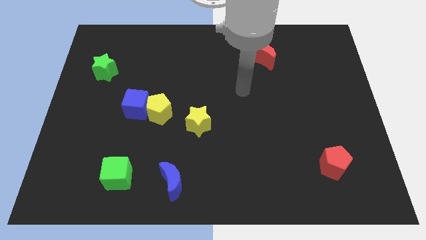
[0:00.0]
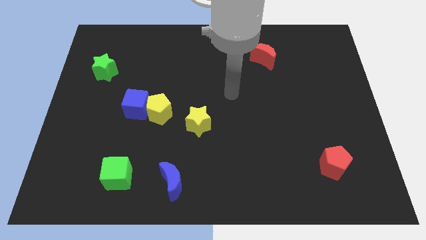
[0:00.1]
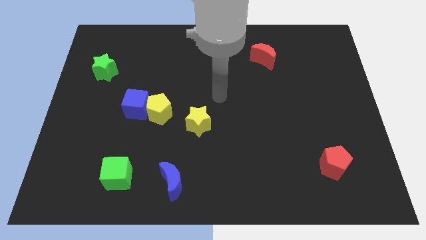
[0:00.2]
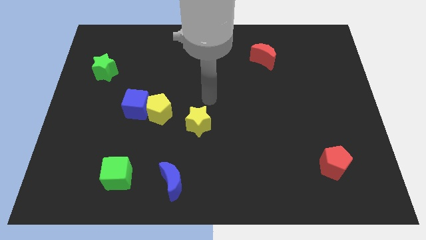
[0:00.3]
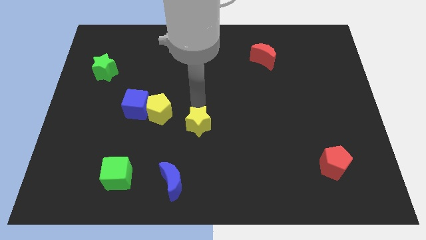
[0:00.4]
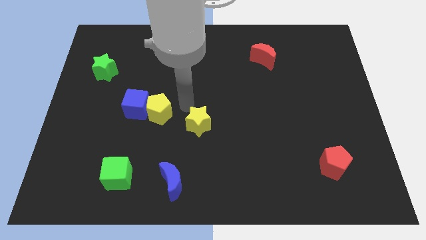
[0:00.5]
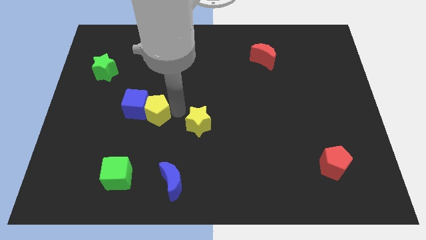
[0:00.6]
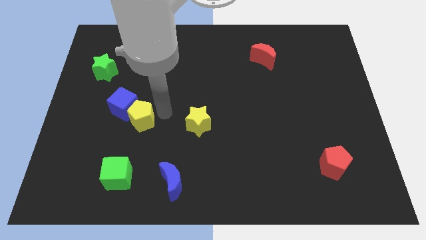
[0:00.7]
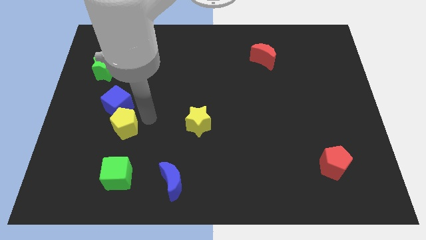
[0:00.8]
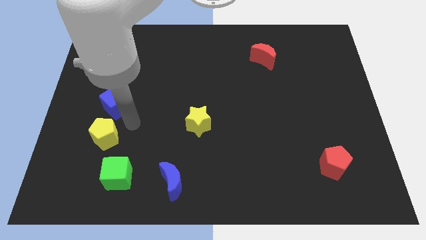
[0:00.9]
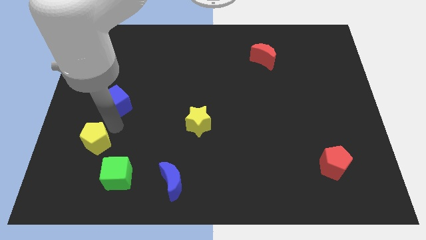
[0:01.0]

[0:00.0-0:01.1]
move the blue cube away from the yellow pentagon

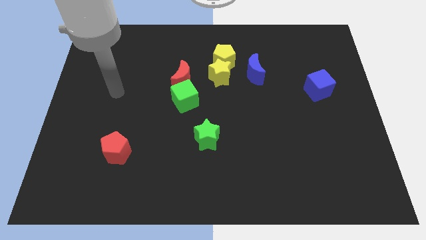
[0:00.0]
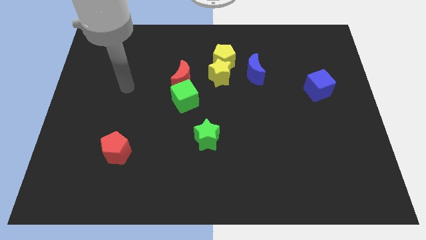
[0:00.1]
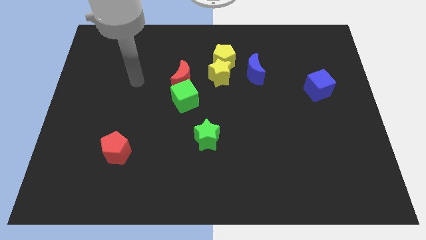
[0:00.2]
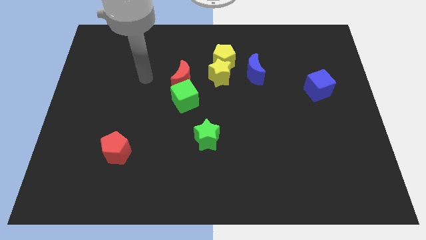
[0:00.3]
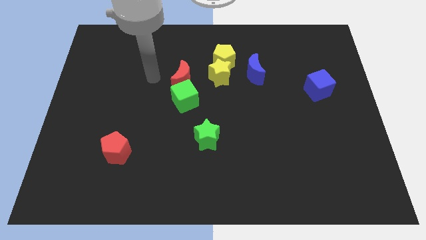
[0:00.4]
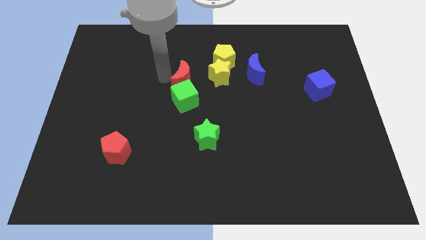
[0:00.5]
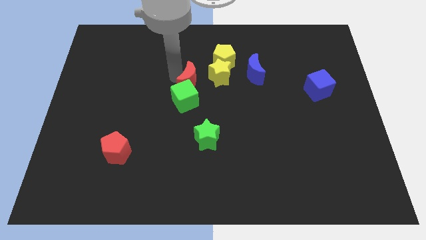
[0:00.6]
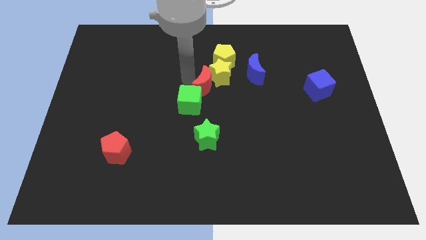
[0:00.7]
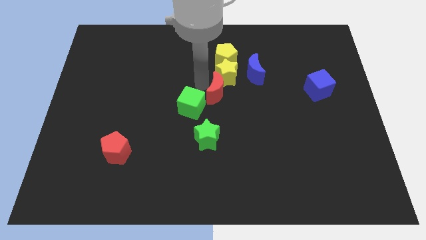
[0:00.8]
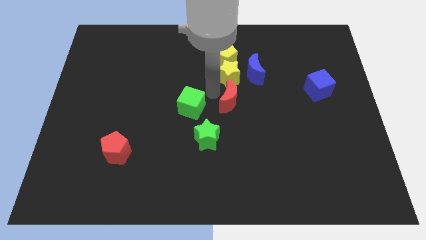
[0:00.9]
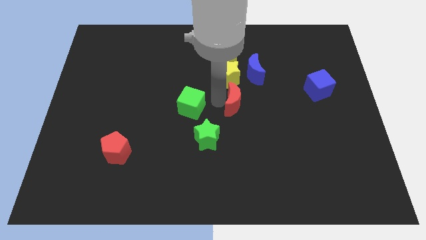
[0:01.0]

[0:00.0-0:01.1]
separate the green cube from the red moon

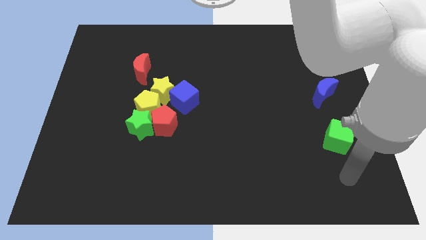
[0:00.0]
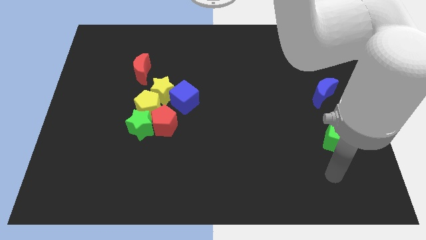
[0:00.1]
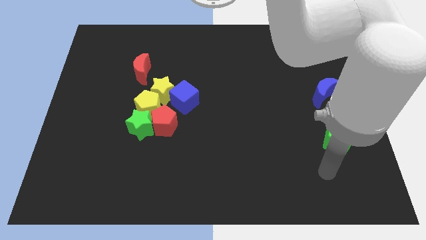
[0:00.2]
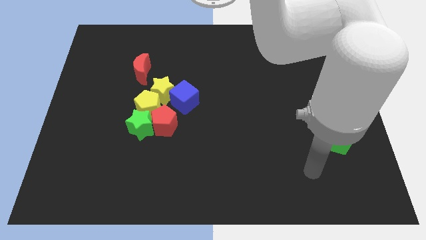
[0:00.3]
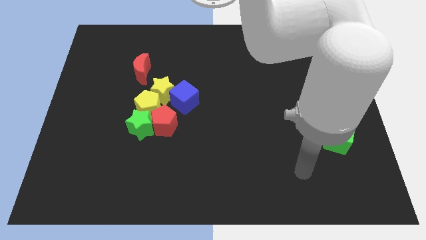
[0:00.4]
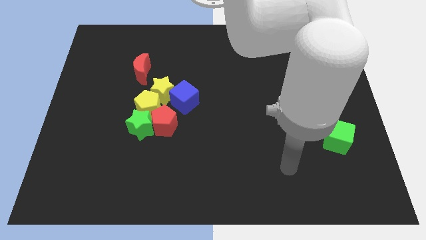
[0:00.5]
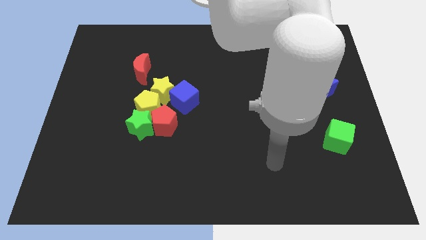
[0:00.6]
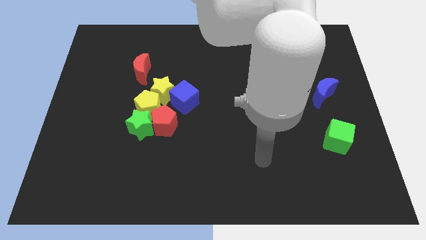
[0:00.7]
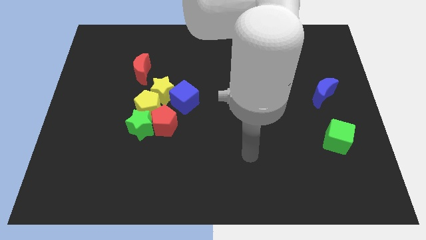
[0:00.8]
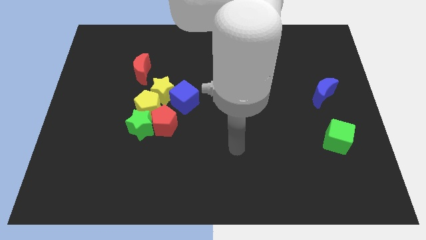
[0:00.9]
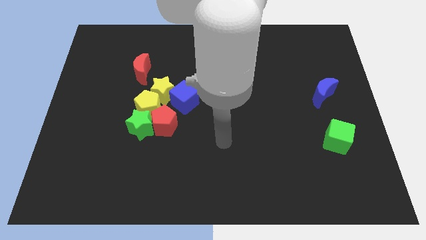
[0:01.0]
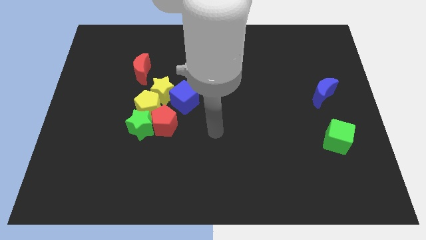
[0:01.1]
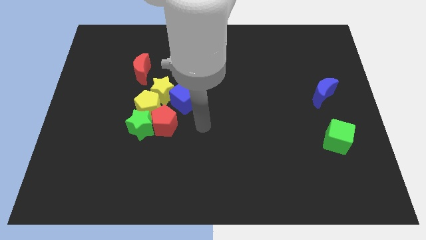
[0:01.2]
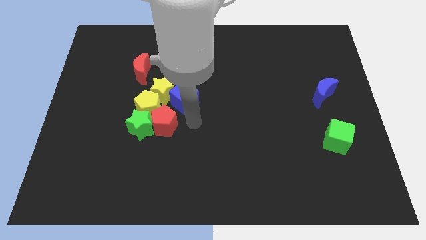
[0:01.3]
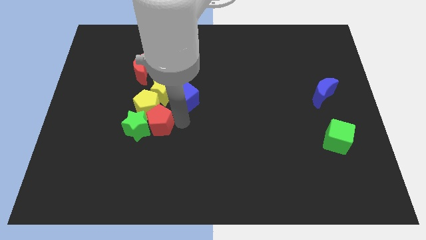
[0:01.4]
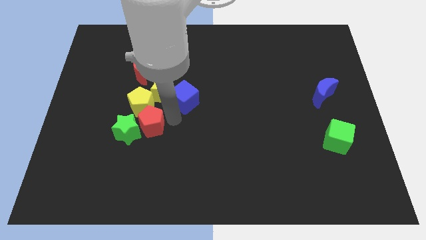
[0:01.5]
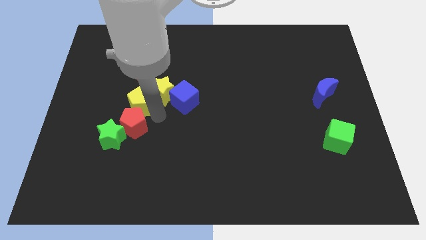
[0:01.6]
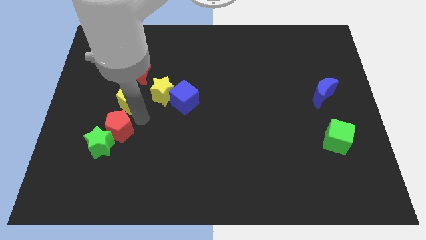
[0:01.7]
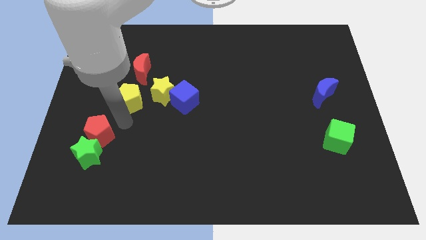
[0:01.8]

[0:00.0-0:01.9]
pull the green star apart from the red pentagon and yellow pentagon

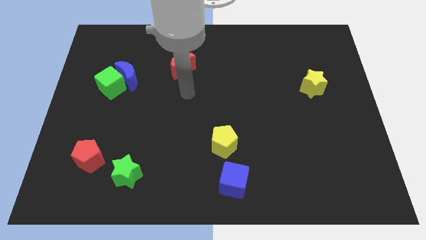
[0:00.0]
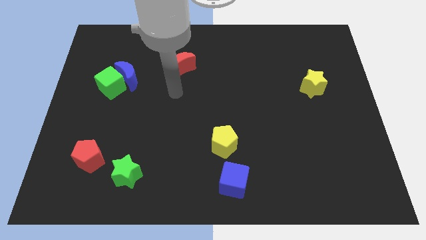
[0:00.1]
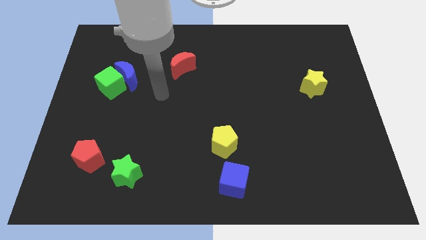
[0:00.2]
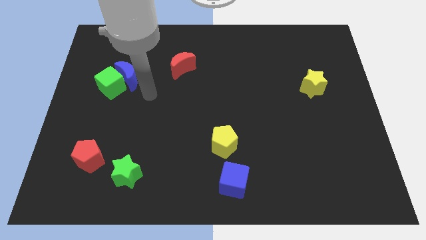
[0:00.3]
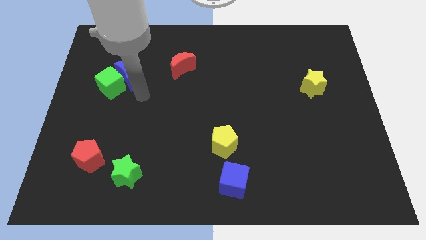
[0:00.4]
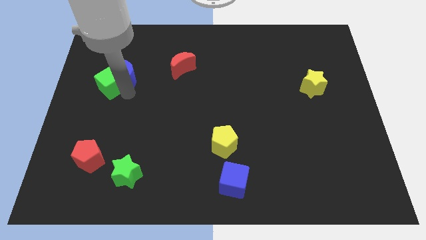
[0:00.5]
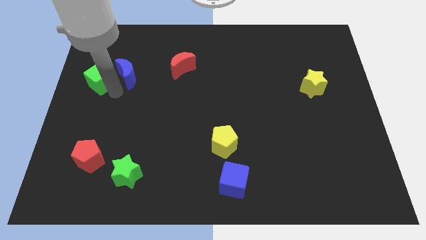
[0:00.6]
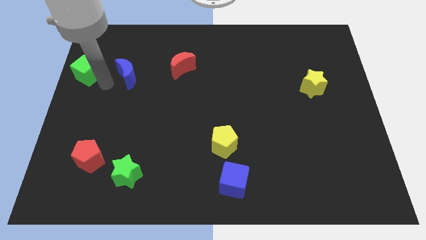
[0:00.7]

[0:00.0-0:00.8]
move the blue moon away from the green cube

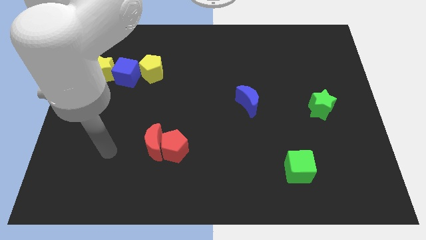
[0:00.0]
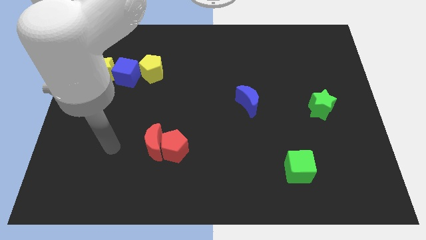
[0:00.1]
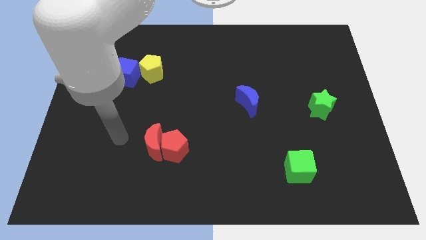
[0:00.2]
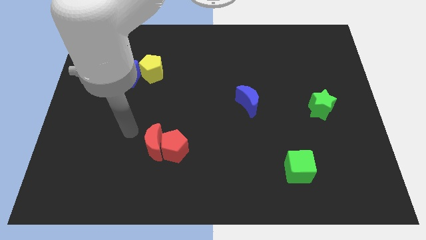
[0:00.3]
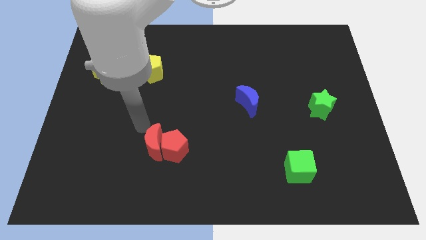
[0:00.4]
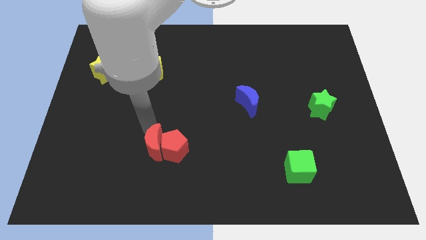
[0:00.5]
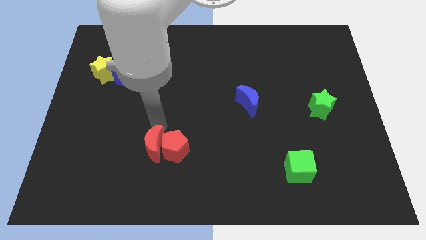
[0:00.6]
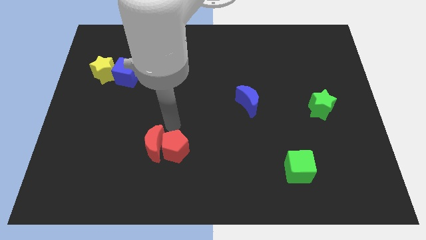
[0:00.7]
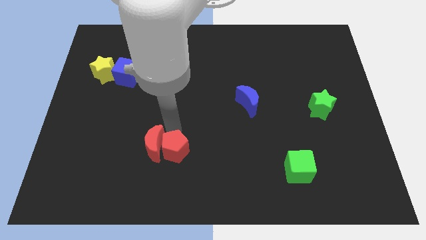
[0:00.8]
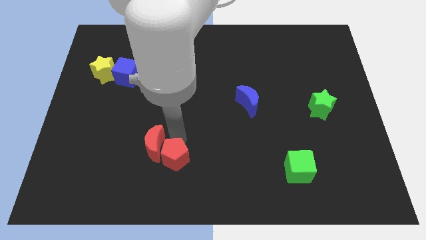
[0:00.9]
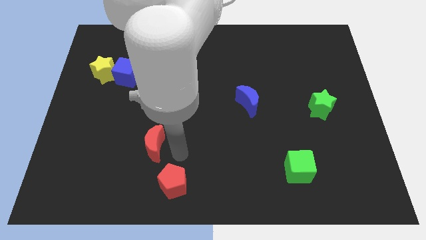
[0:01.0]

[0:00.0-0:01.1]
pull the red moon apart from the red pentagon

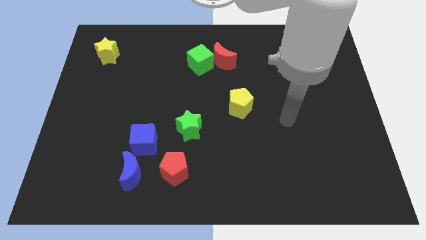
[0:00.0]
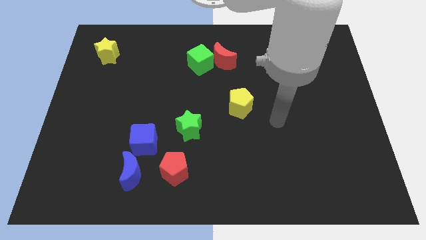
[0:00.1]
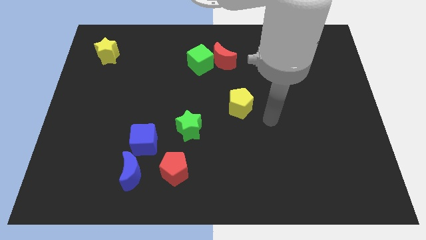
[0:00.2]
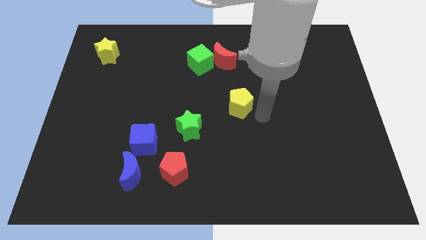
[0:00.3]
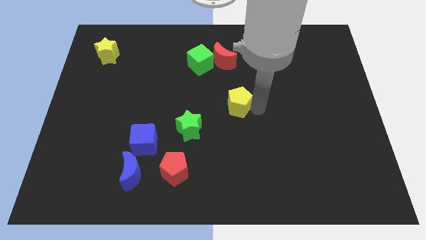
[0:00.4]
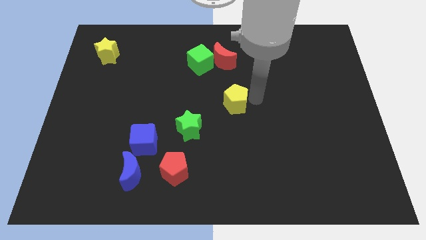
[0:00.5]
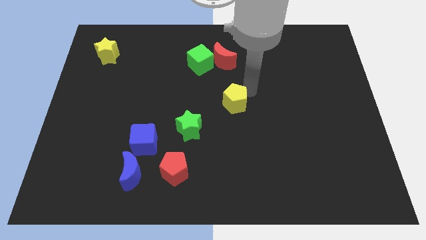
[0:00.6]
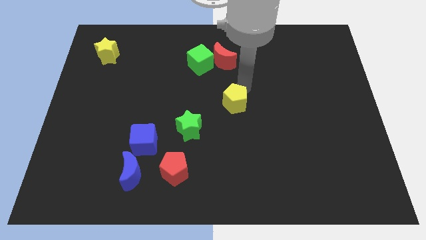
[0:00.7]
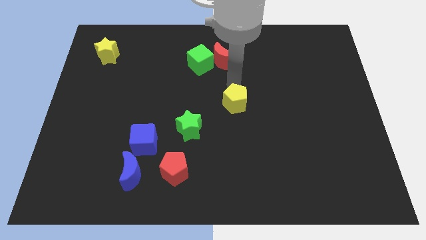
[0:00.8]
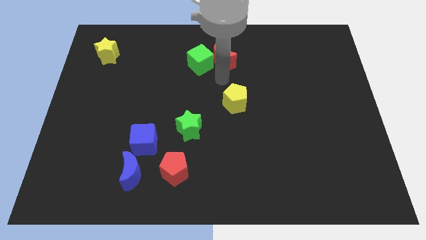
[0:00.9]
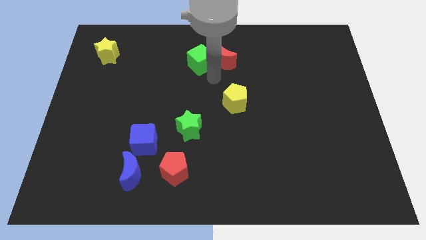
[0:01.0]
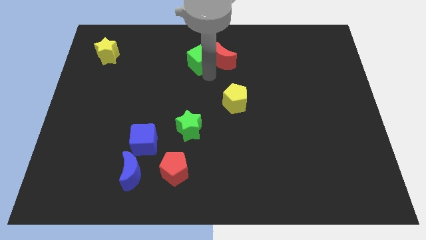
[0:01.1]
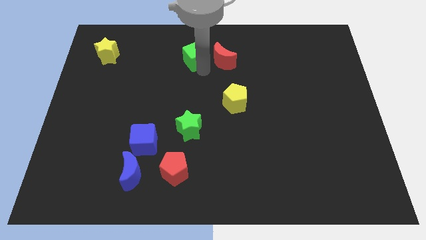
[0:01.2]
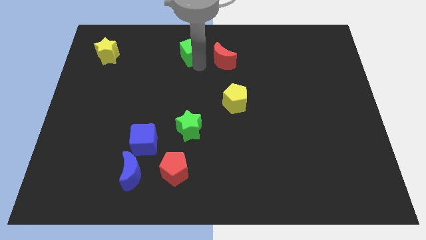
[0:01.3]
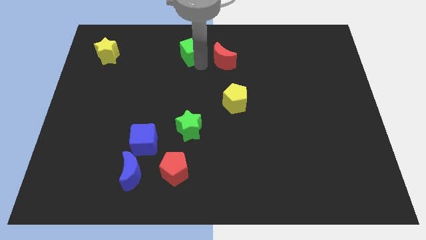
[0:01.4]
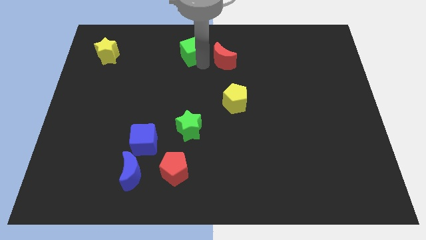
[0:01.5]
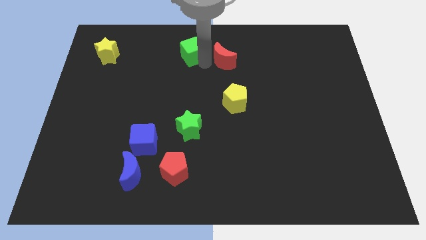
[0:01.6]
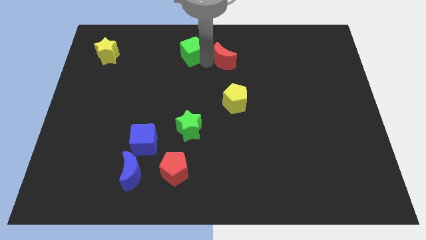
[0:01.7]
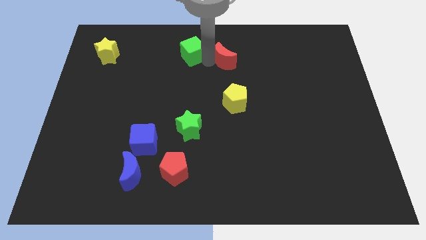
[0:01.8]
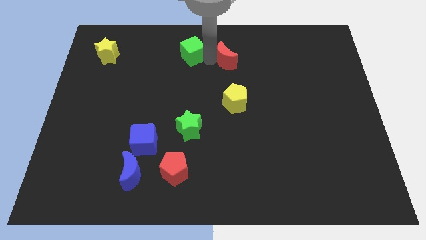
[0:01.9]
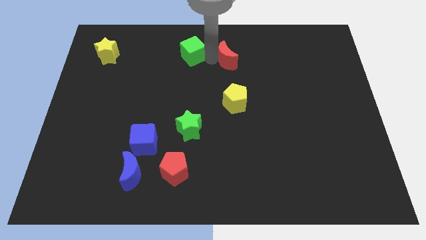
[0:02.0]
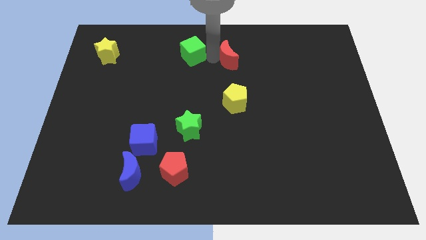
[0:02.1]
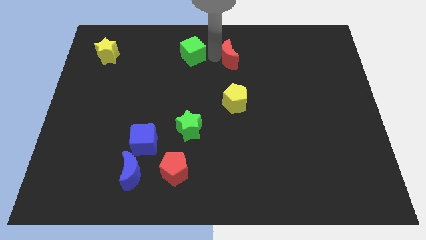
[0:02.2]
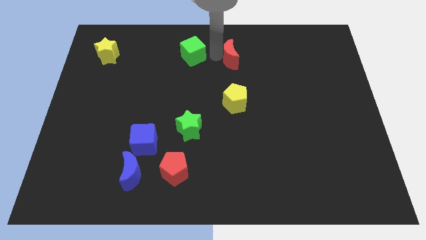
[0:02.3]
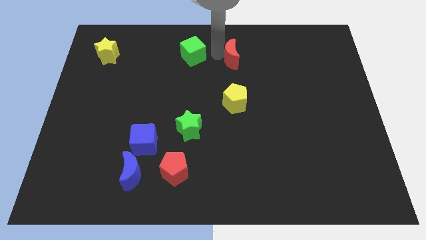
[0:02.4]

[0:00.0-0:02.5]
move the red moon away from the green cube

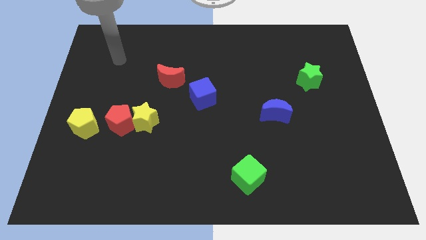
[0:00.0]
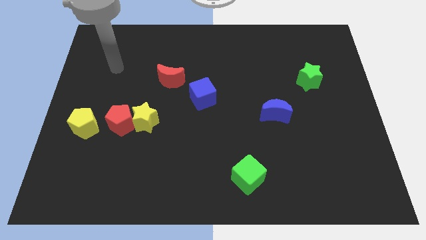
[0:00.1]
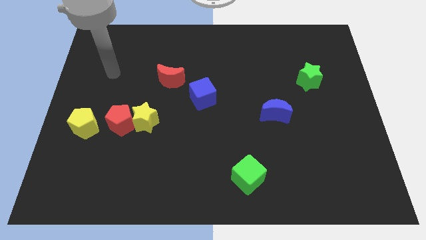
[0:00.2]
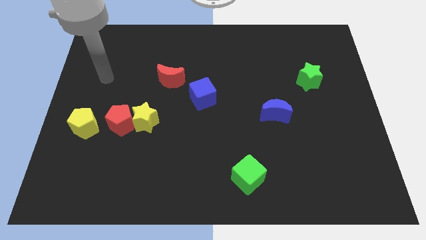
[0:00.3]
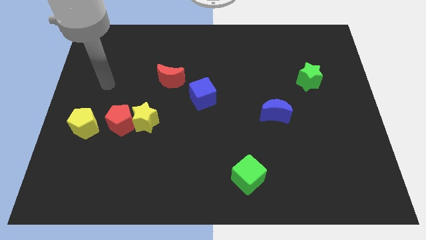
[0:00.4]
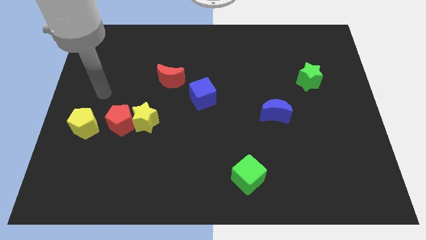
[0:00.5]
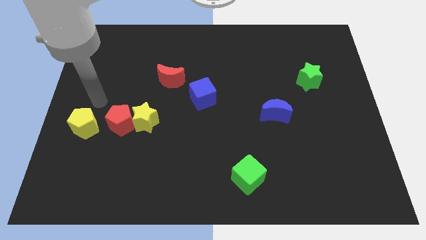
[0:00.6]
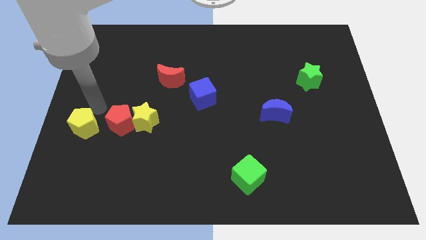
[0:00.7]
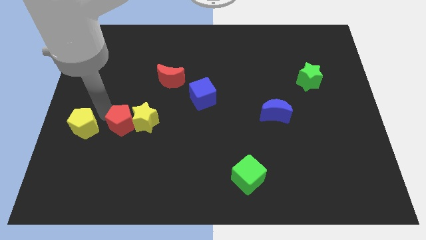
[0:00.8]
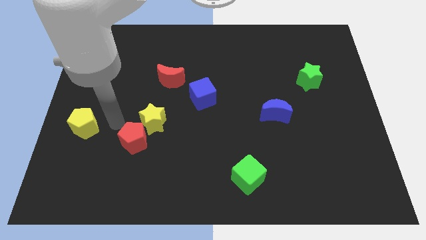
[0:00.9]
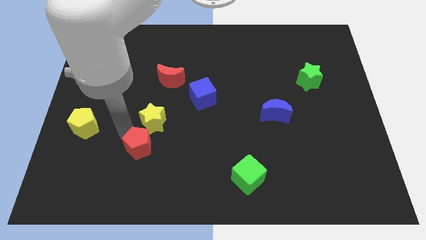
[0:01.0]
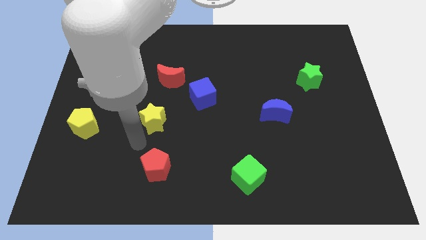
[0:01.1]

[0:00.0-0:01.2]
separate the yellow star from the red pentagon
